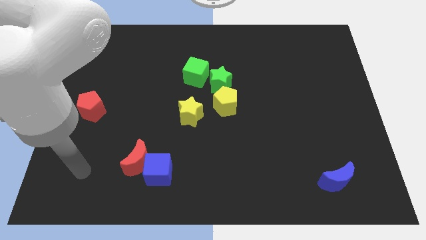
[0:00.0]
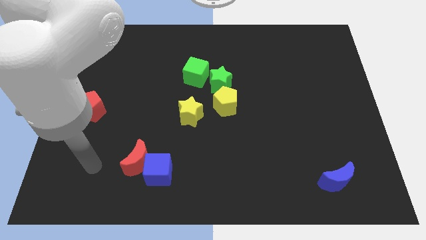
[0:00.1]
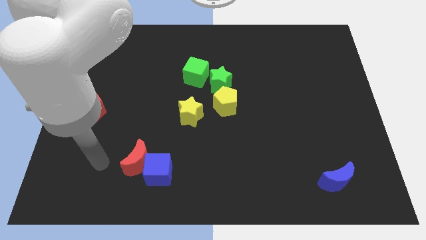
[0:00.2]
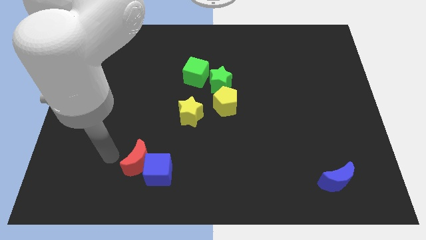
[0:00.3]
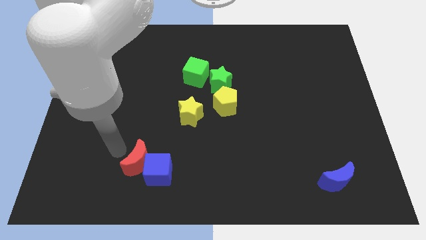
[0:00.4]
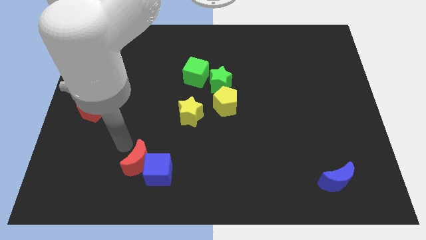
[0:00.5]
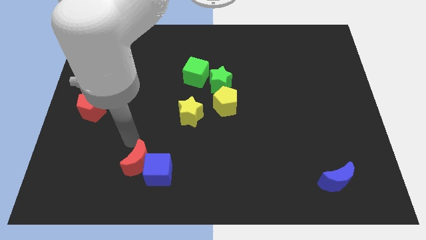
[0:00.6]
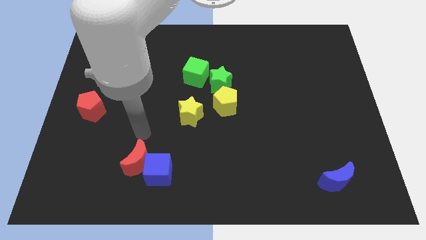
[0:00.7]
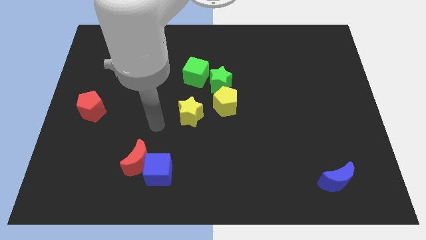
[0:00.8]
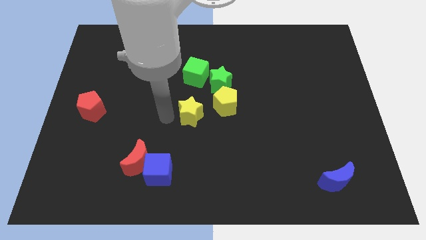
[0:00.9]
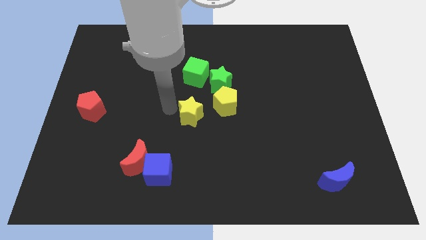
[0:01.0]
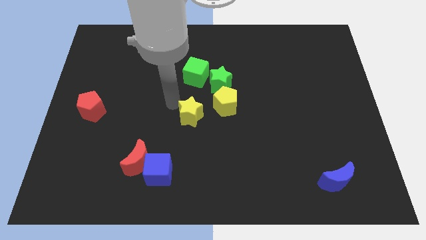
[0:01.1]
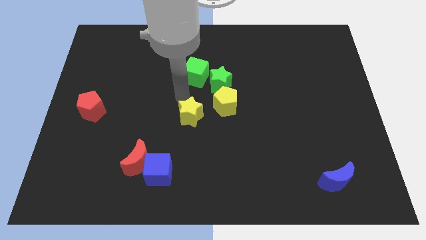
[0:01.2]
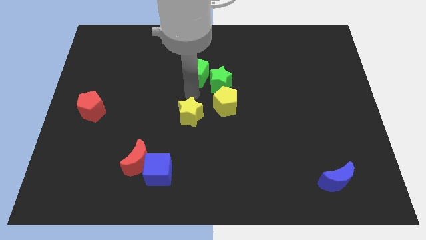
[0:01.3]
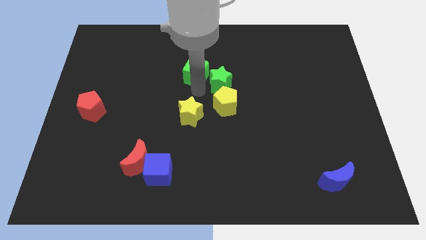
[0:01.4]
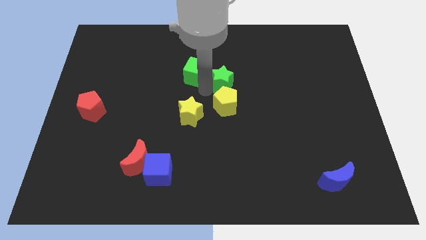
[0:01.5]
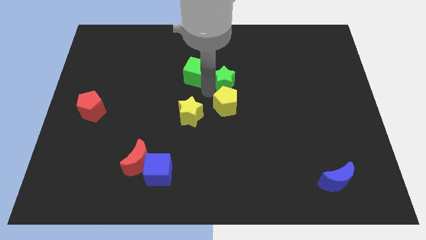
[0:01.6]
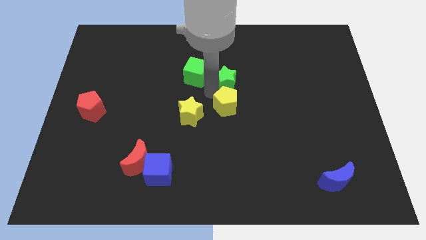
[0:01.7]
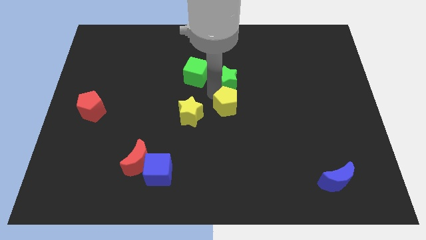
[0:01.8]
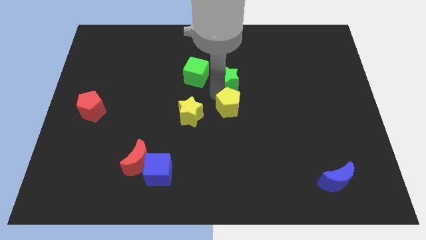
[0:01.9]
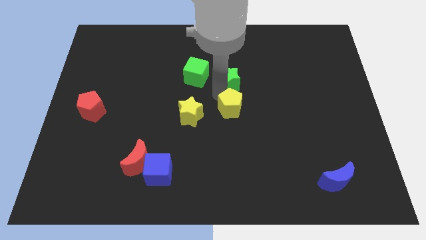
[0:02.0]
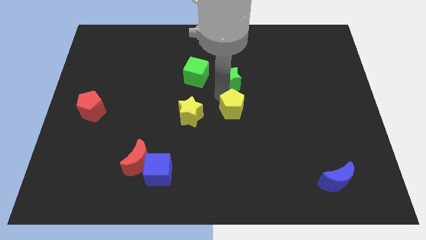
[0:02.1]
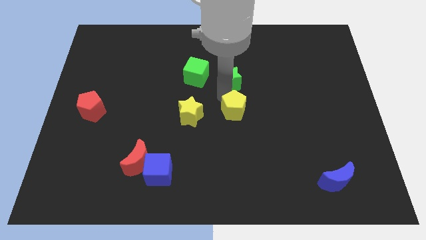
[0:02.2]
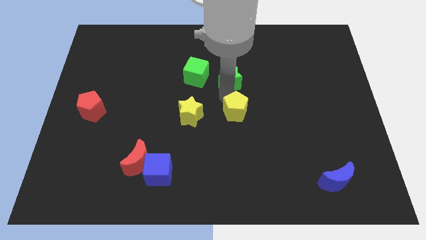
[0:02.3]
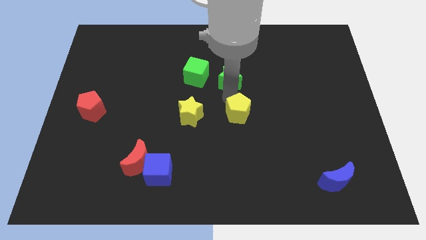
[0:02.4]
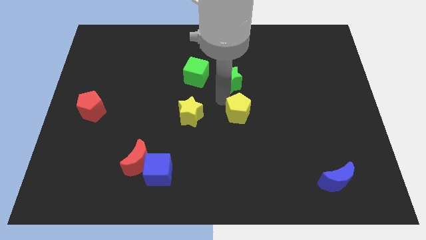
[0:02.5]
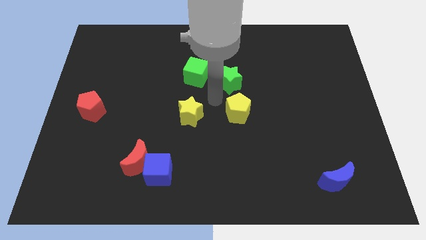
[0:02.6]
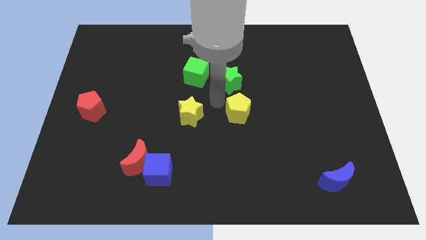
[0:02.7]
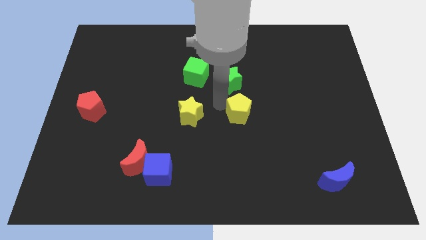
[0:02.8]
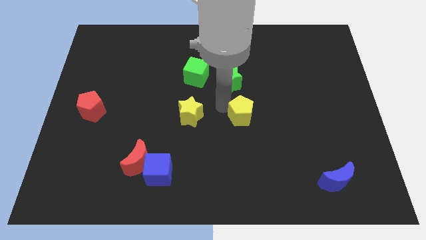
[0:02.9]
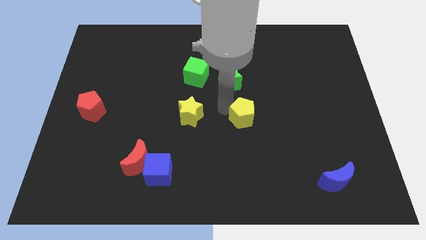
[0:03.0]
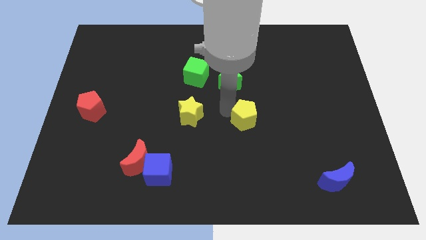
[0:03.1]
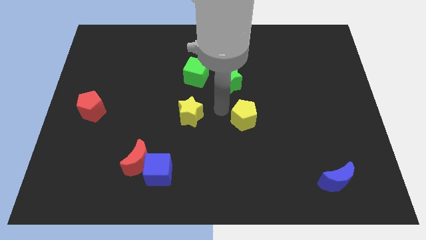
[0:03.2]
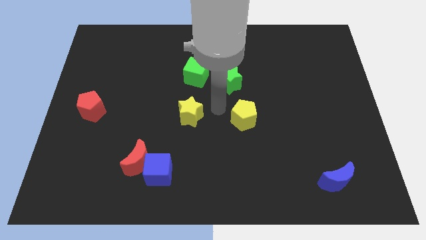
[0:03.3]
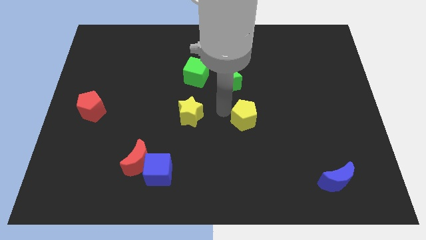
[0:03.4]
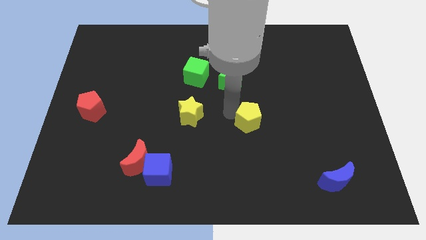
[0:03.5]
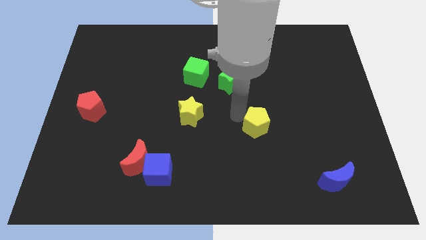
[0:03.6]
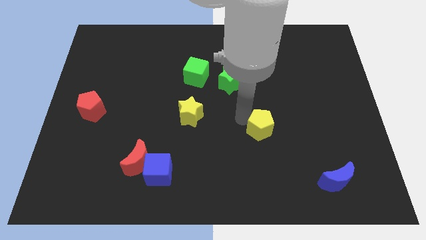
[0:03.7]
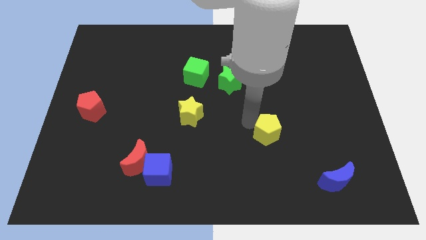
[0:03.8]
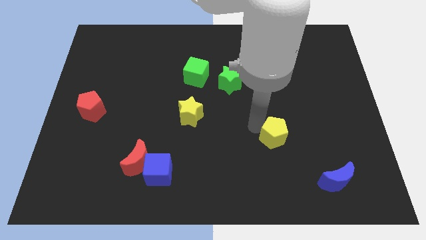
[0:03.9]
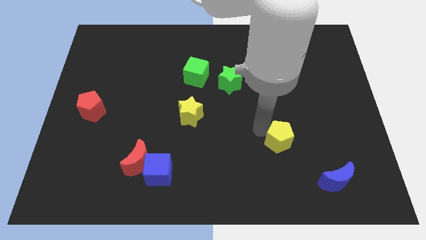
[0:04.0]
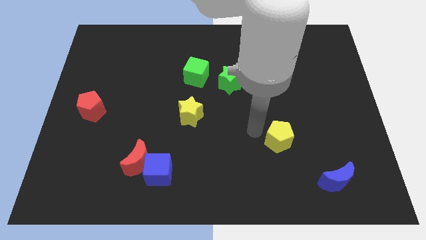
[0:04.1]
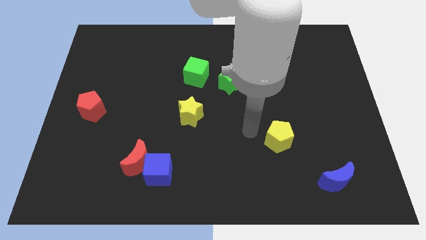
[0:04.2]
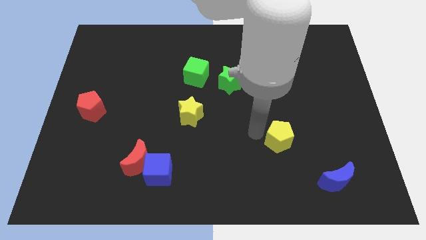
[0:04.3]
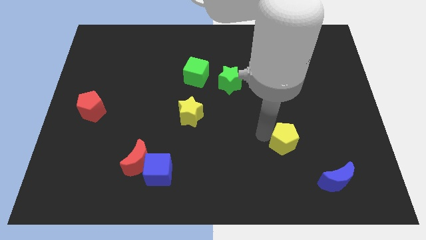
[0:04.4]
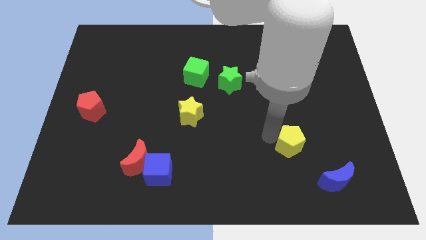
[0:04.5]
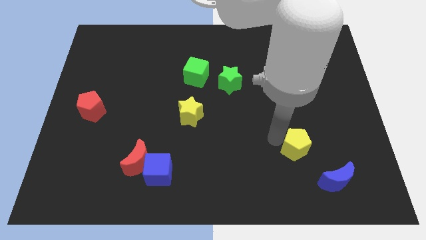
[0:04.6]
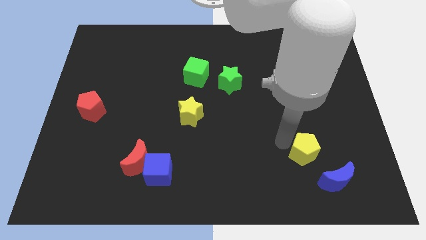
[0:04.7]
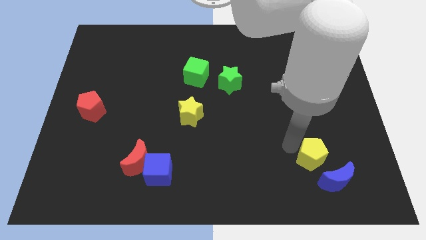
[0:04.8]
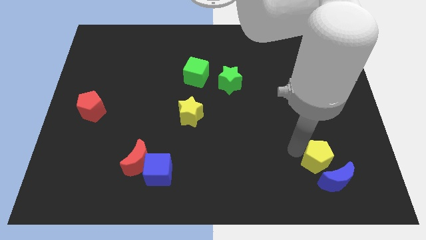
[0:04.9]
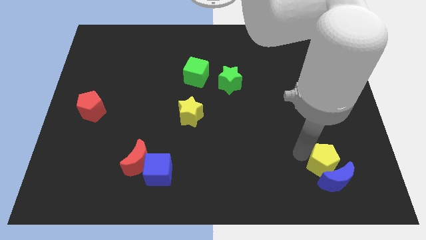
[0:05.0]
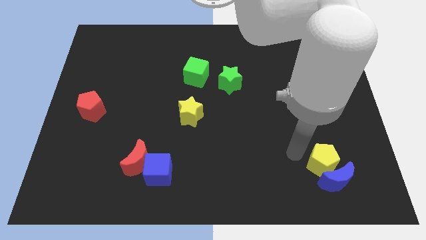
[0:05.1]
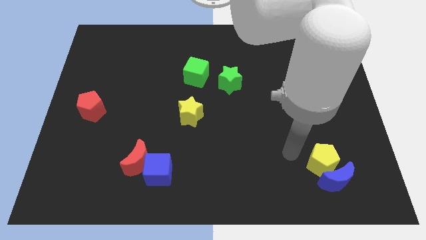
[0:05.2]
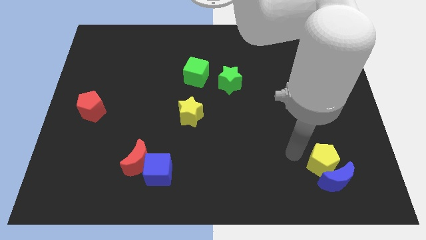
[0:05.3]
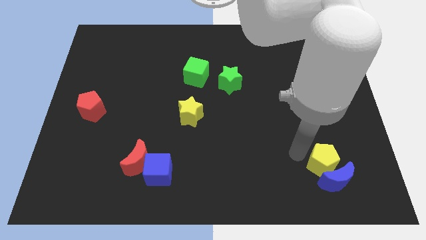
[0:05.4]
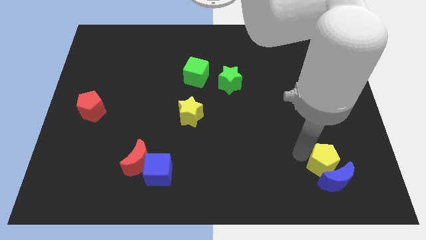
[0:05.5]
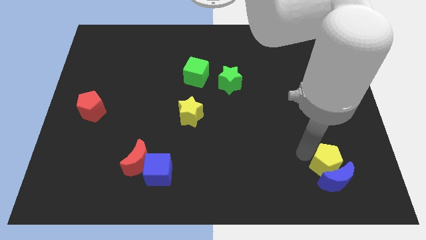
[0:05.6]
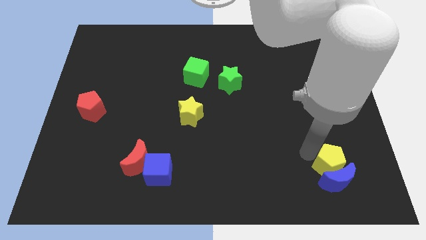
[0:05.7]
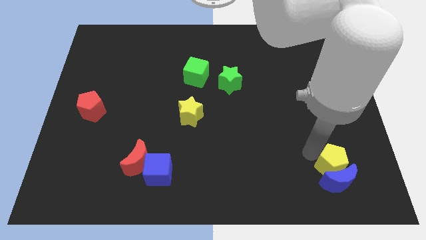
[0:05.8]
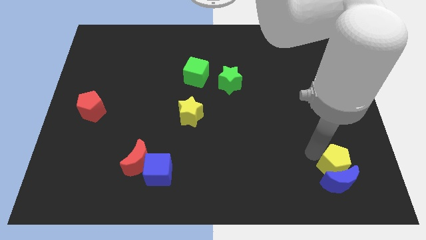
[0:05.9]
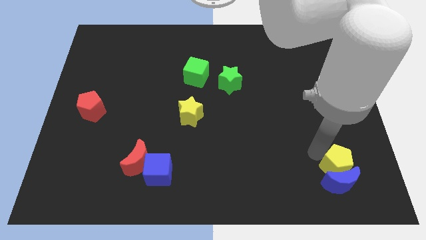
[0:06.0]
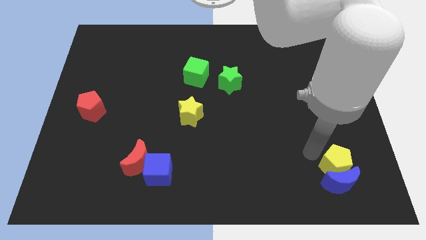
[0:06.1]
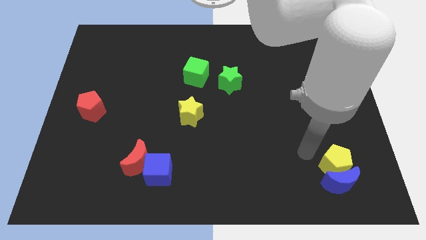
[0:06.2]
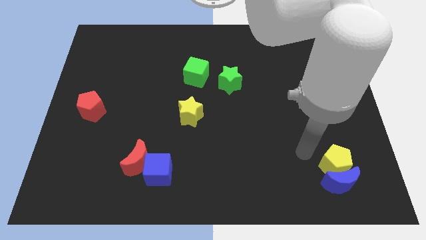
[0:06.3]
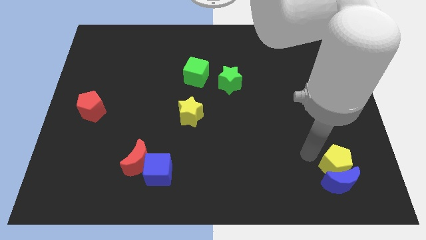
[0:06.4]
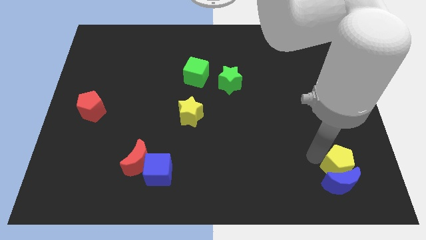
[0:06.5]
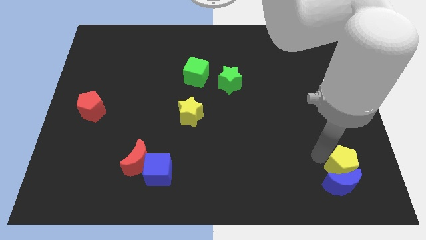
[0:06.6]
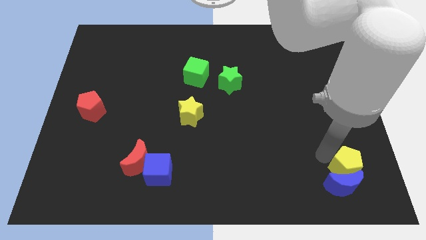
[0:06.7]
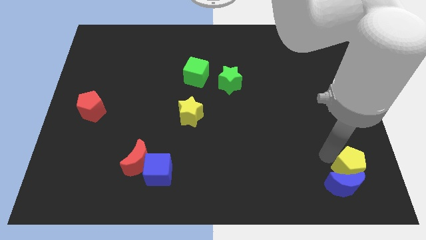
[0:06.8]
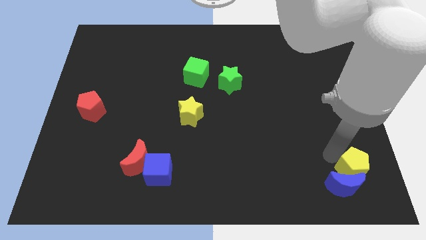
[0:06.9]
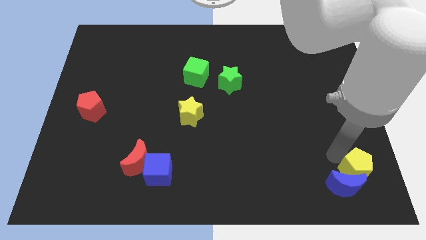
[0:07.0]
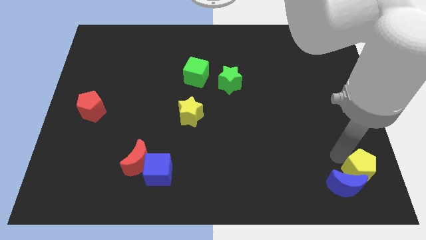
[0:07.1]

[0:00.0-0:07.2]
move the yellow pentagon to the bottom right corner

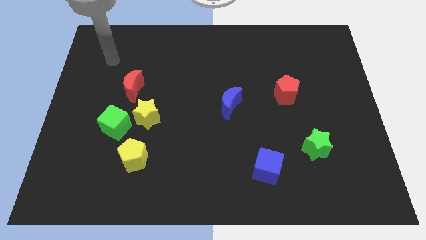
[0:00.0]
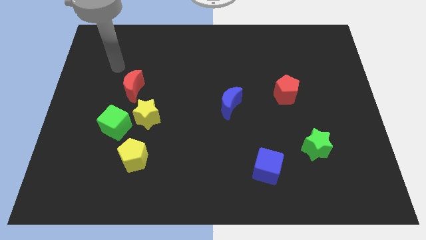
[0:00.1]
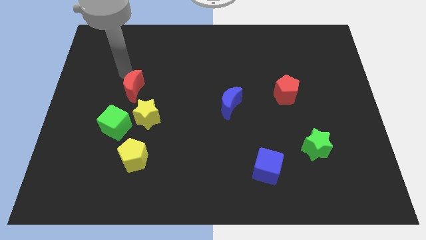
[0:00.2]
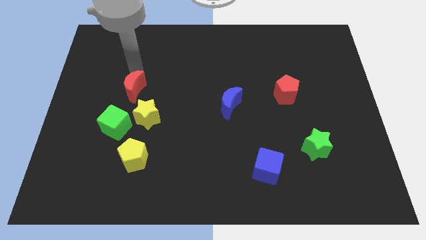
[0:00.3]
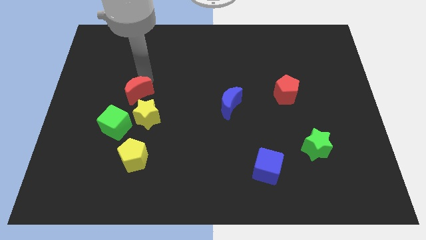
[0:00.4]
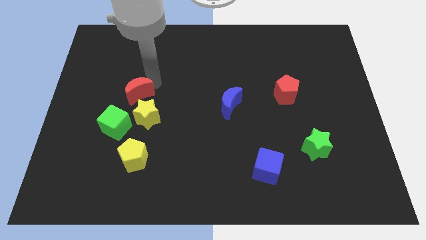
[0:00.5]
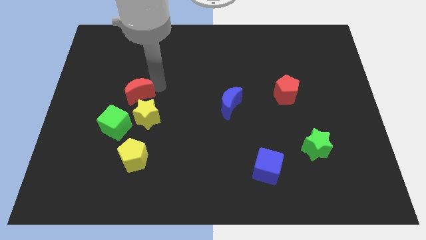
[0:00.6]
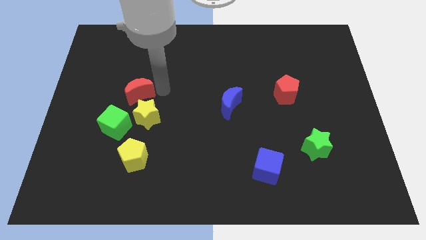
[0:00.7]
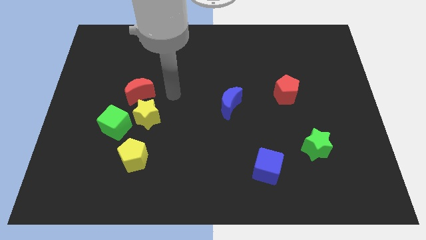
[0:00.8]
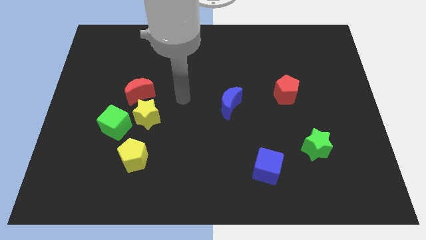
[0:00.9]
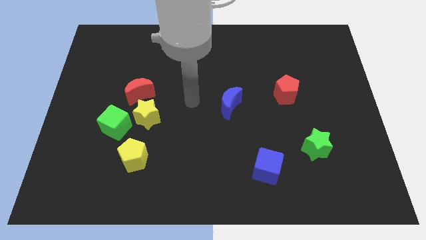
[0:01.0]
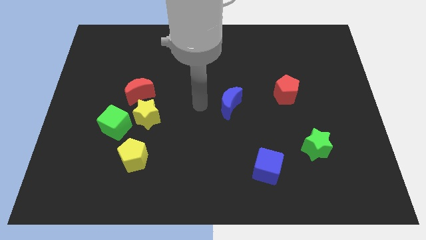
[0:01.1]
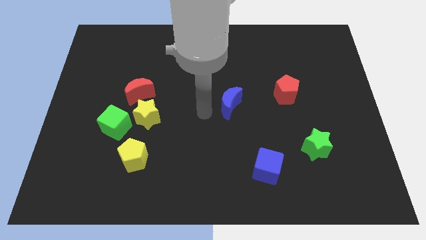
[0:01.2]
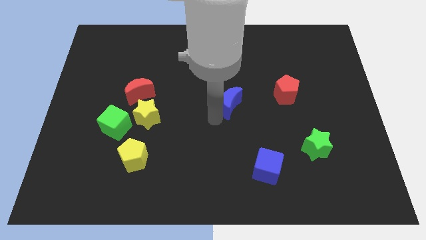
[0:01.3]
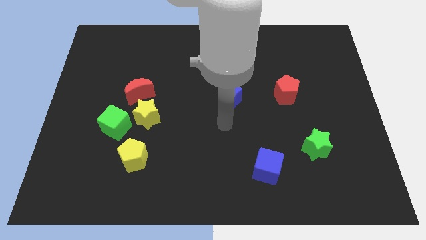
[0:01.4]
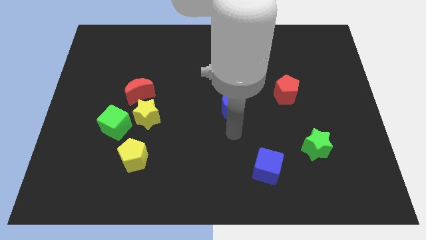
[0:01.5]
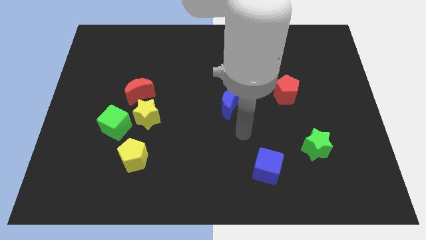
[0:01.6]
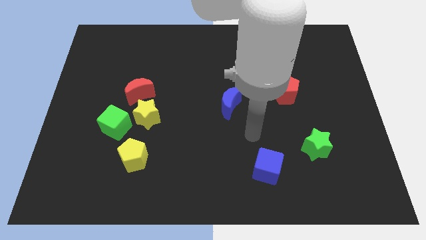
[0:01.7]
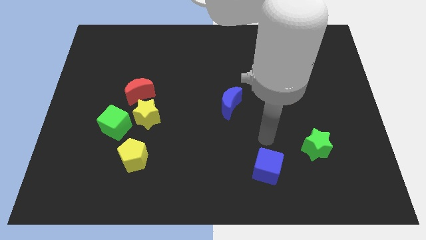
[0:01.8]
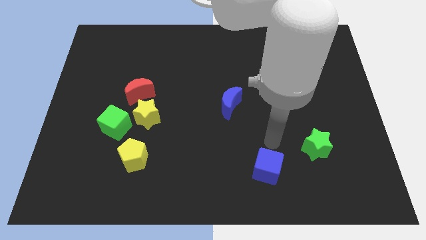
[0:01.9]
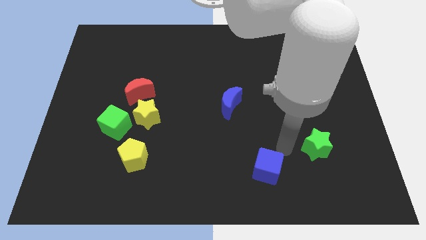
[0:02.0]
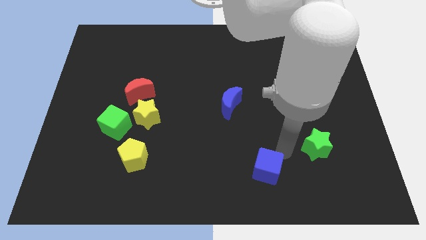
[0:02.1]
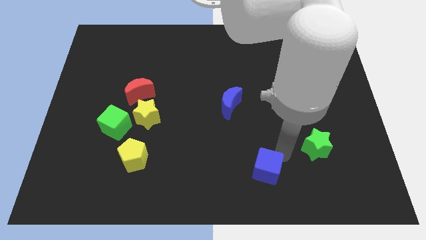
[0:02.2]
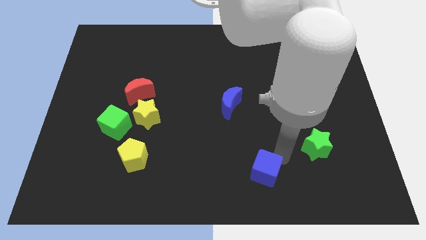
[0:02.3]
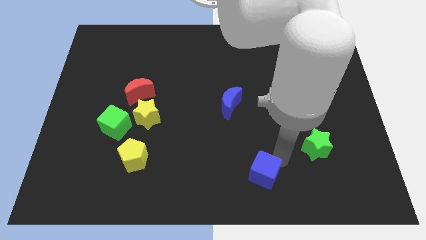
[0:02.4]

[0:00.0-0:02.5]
slide the blue cube to the bottom
